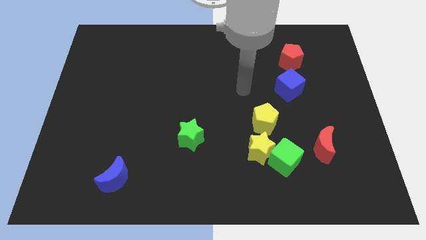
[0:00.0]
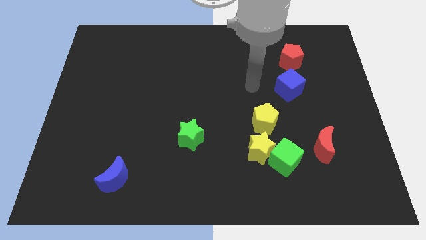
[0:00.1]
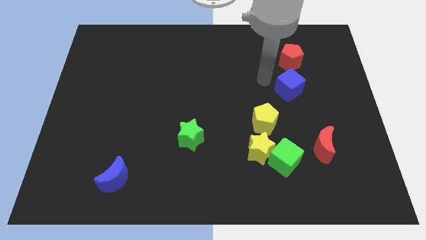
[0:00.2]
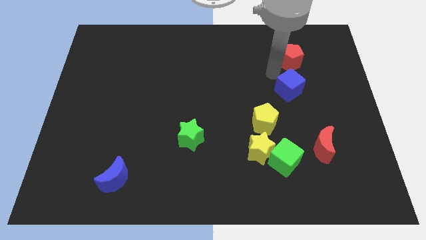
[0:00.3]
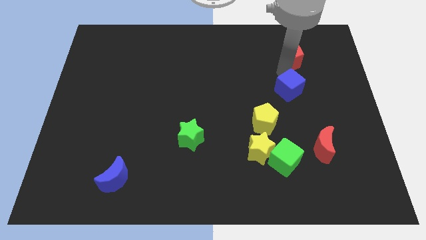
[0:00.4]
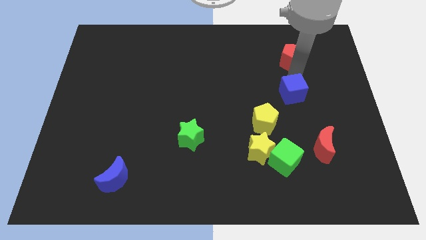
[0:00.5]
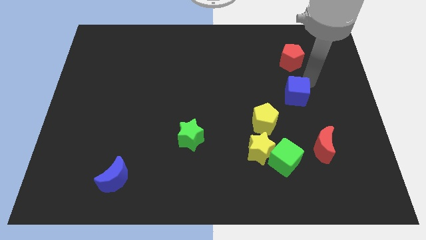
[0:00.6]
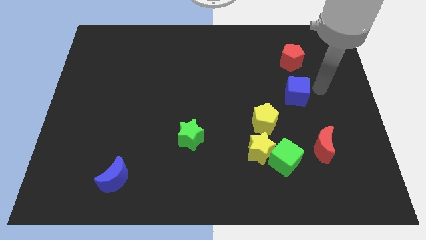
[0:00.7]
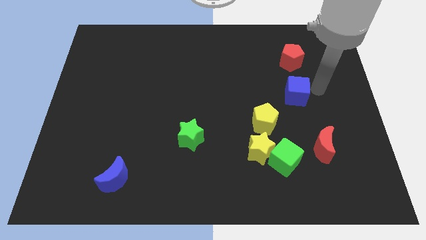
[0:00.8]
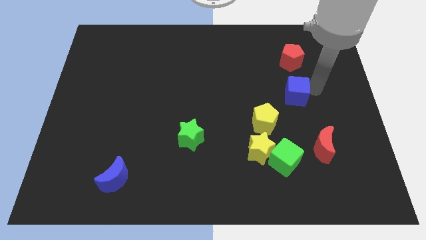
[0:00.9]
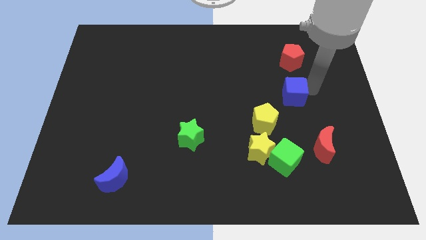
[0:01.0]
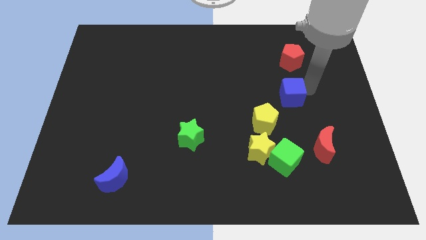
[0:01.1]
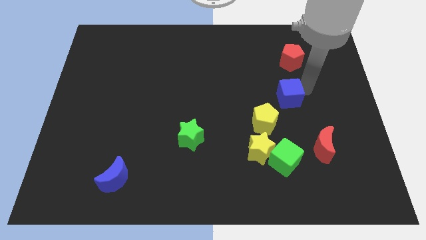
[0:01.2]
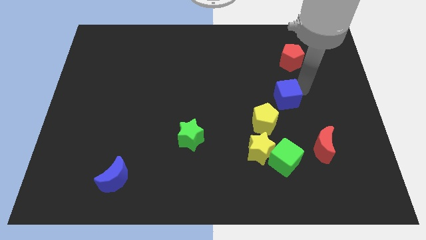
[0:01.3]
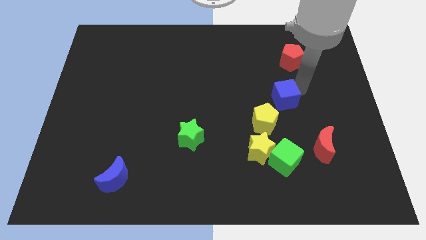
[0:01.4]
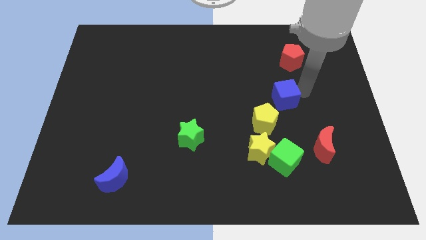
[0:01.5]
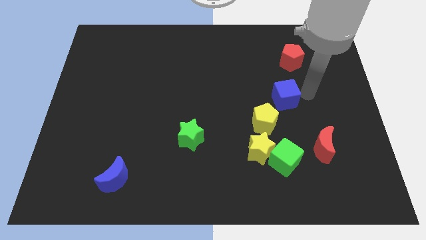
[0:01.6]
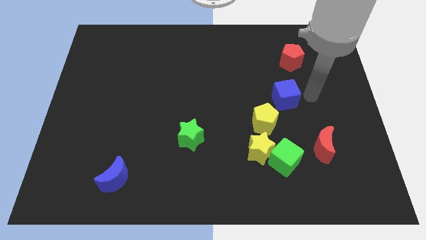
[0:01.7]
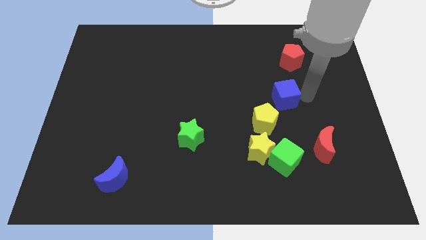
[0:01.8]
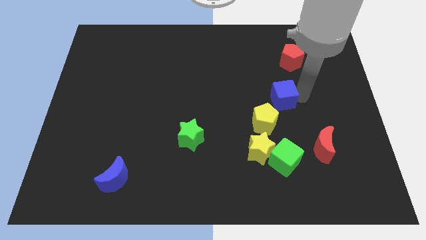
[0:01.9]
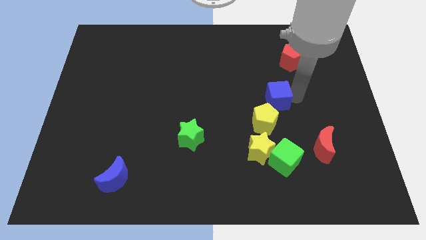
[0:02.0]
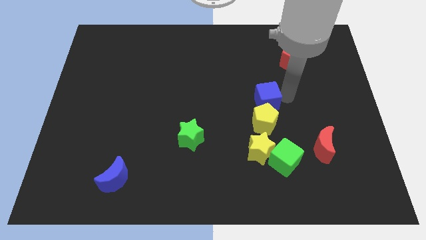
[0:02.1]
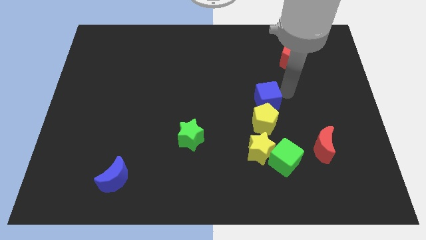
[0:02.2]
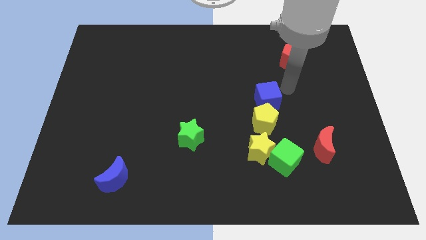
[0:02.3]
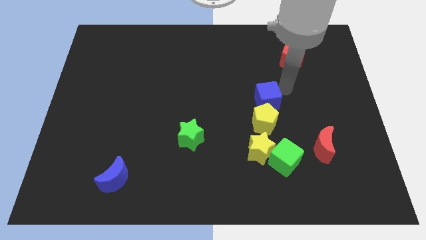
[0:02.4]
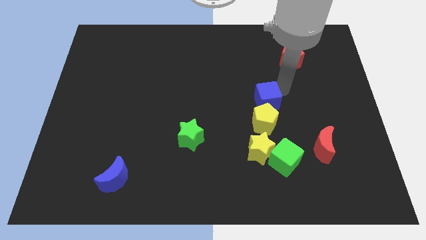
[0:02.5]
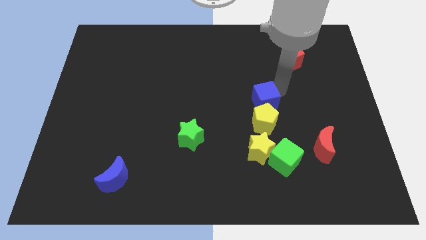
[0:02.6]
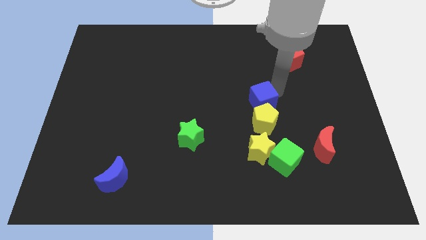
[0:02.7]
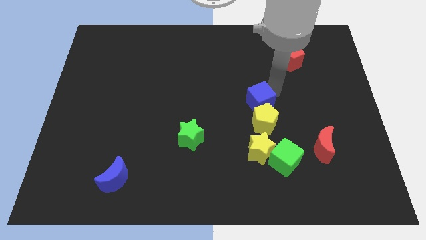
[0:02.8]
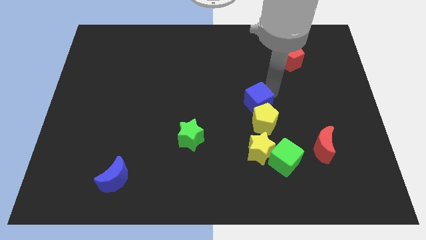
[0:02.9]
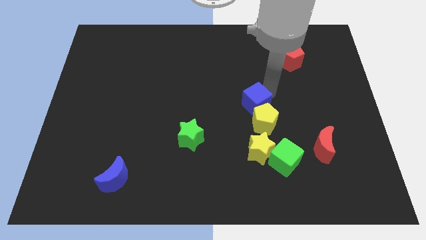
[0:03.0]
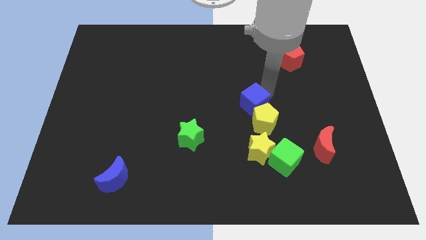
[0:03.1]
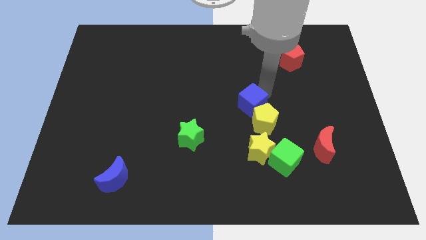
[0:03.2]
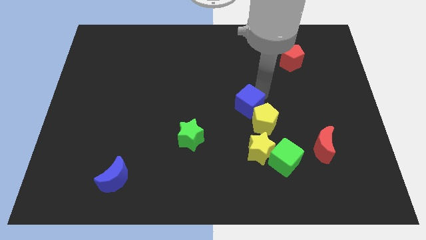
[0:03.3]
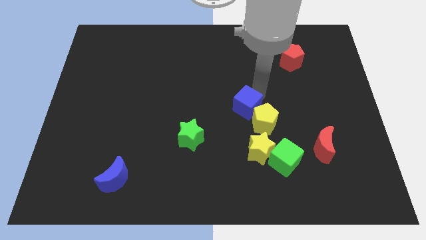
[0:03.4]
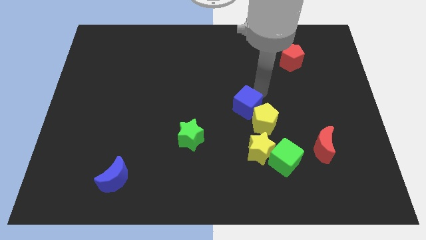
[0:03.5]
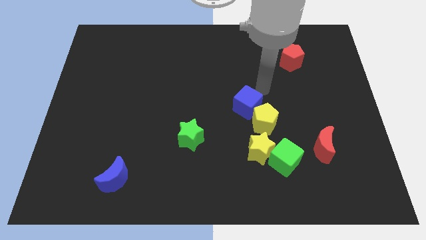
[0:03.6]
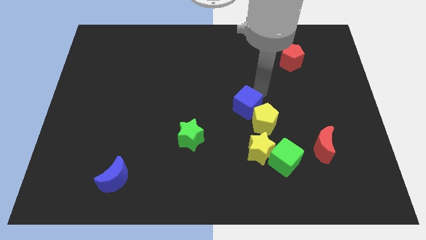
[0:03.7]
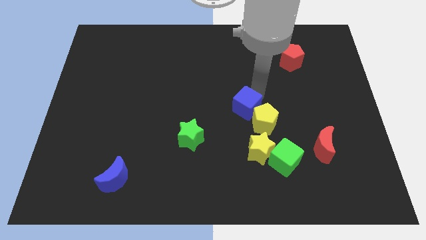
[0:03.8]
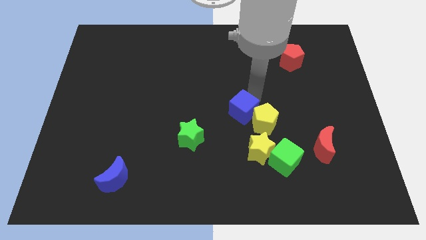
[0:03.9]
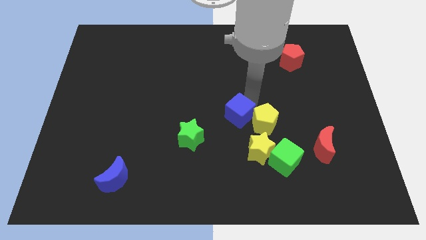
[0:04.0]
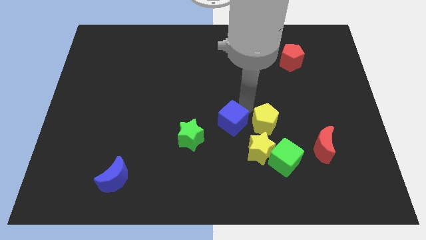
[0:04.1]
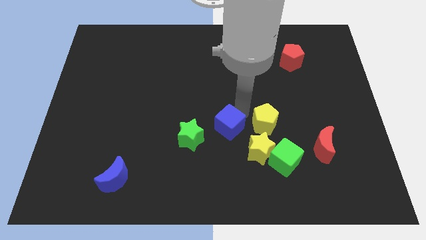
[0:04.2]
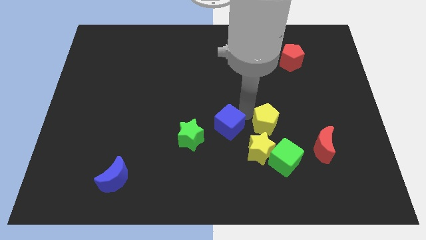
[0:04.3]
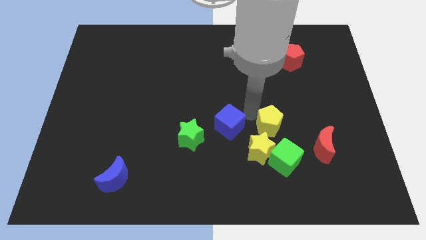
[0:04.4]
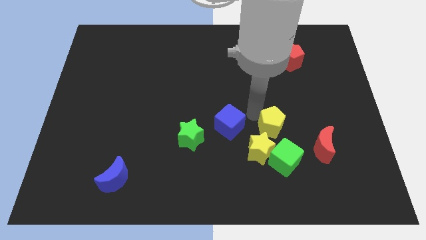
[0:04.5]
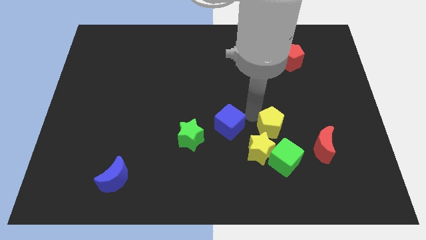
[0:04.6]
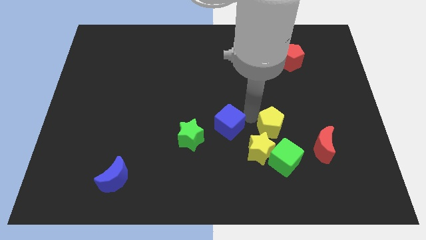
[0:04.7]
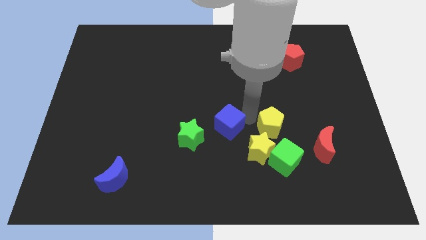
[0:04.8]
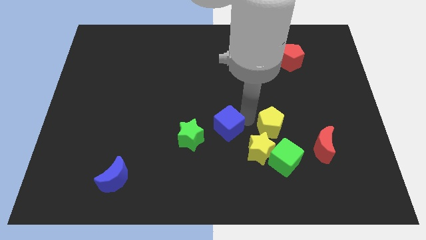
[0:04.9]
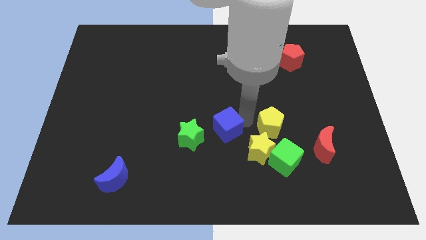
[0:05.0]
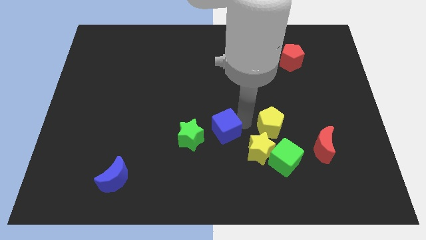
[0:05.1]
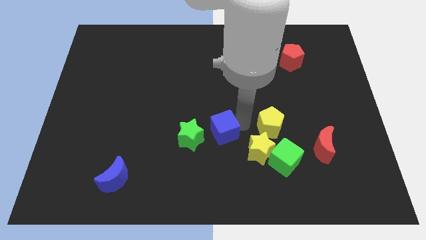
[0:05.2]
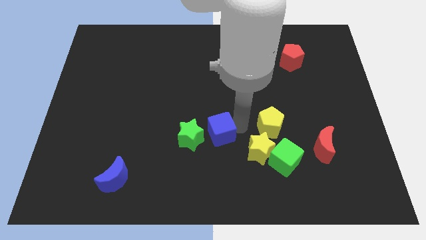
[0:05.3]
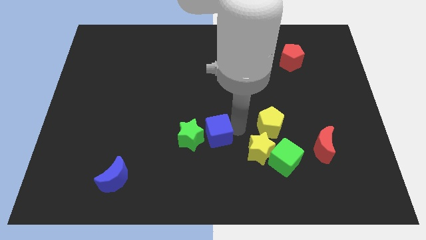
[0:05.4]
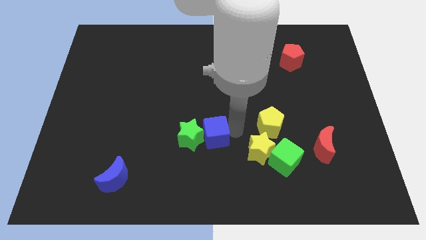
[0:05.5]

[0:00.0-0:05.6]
push the blue cube close to the green star

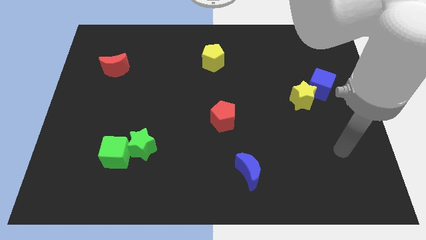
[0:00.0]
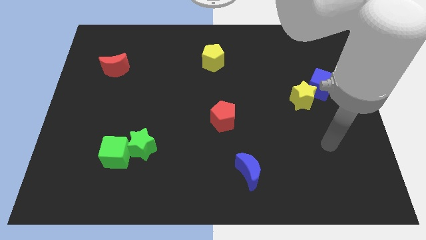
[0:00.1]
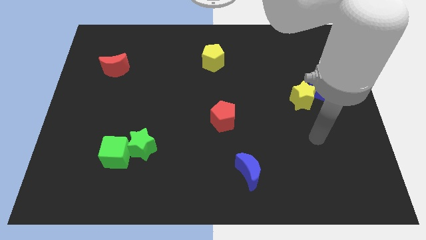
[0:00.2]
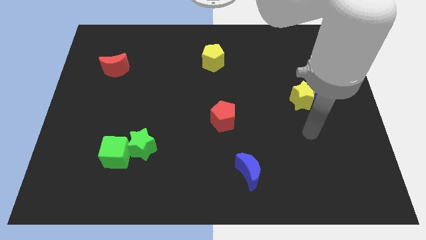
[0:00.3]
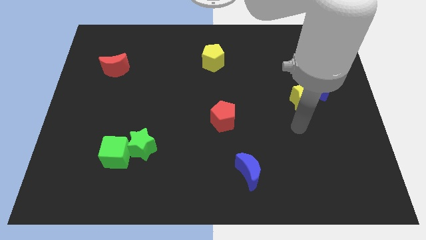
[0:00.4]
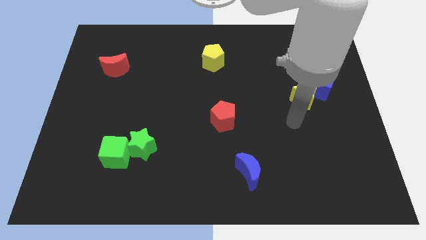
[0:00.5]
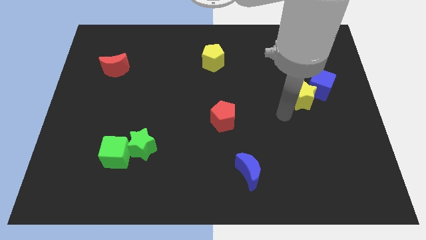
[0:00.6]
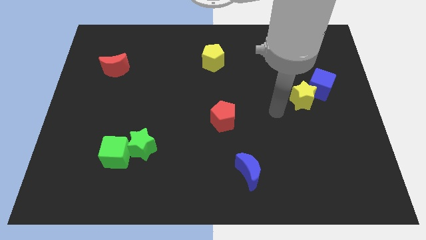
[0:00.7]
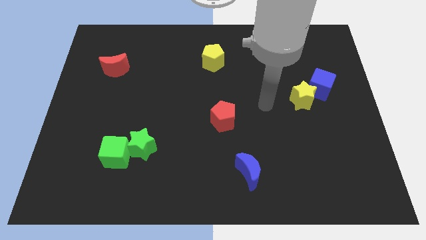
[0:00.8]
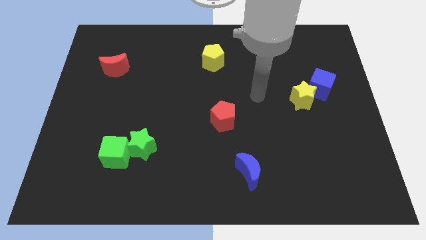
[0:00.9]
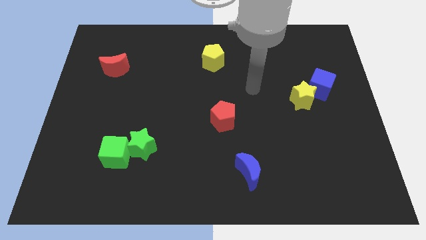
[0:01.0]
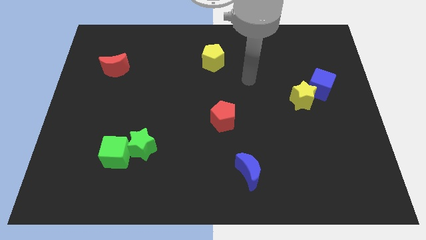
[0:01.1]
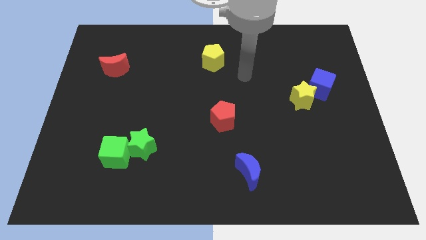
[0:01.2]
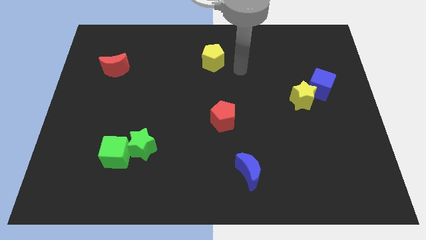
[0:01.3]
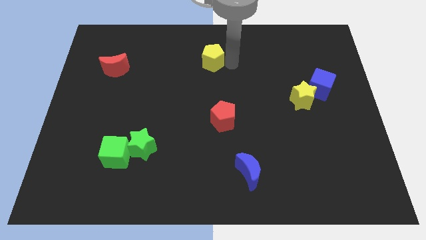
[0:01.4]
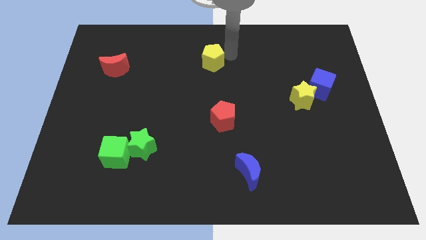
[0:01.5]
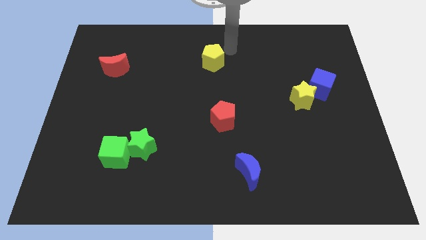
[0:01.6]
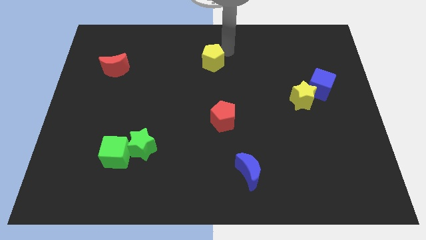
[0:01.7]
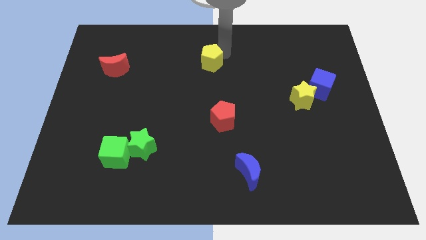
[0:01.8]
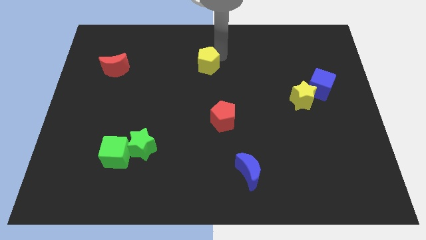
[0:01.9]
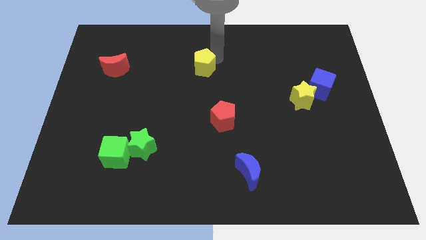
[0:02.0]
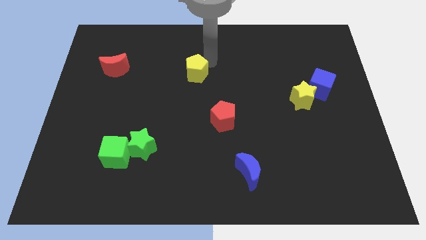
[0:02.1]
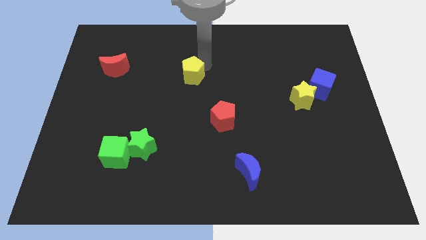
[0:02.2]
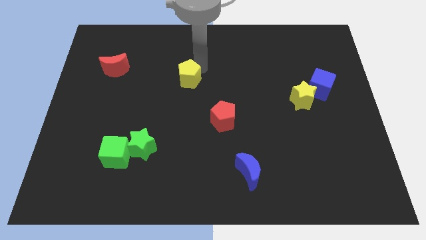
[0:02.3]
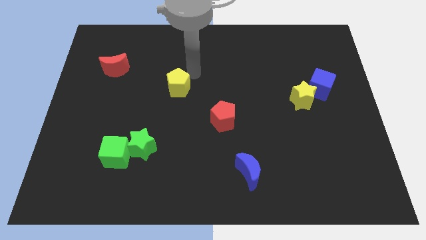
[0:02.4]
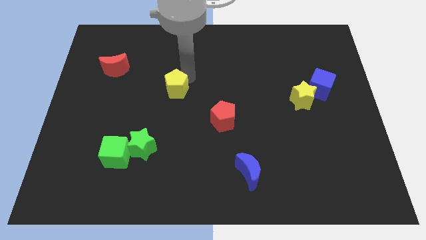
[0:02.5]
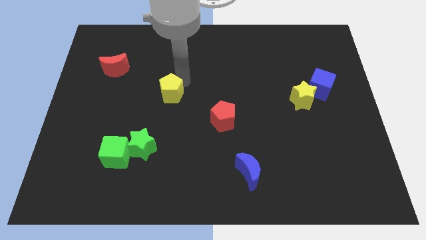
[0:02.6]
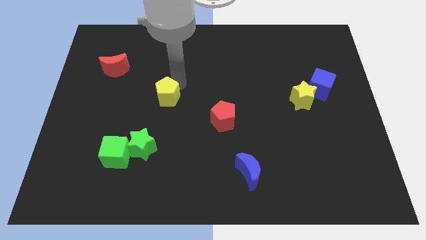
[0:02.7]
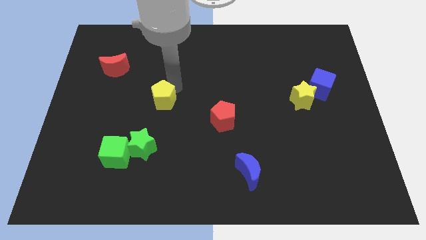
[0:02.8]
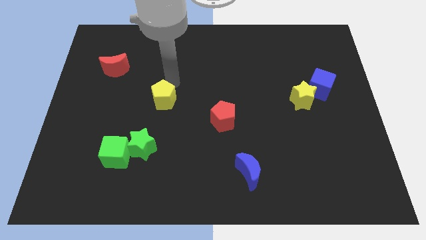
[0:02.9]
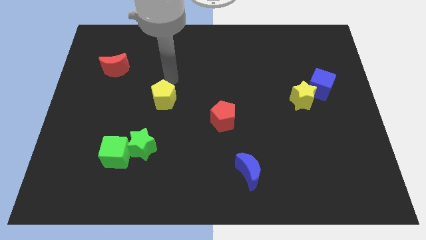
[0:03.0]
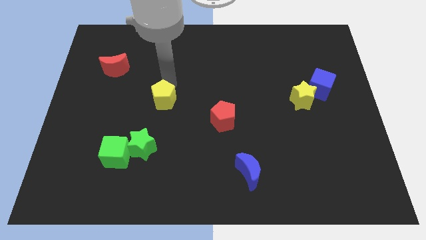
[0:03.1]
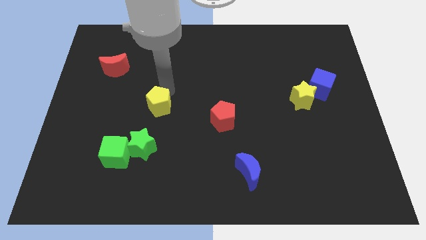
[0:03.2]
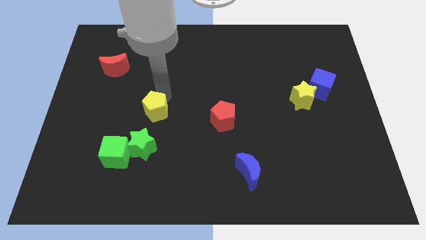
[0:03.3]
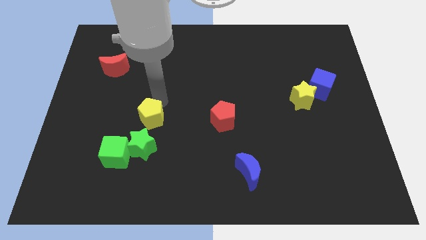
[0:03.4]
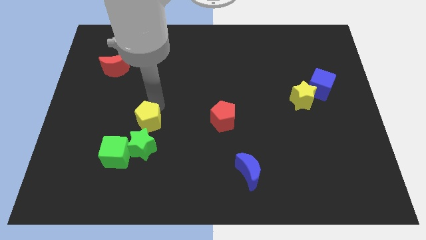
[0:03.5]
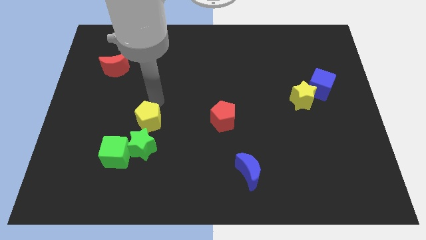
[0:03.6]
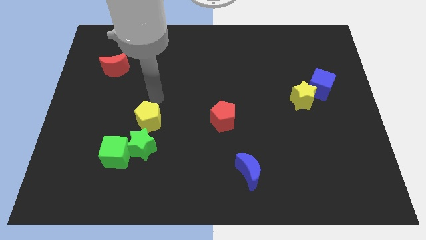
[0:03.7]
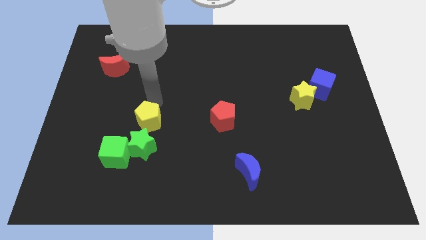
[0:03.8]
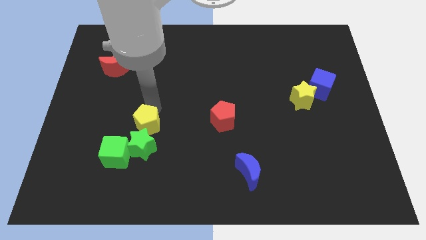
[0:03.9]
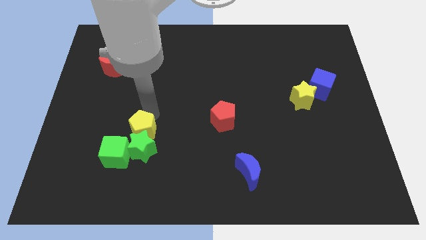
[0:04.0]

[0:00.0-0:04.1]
put the yellow pentagon next to the green star
